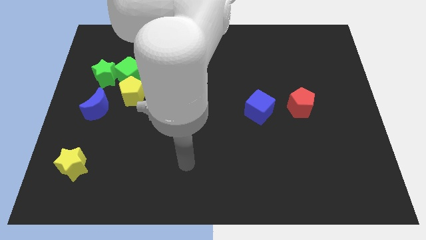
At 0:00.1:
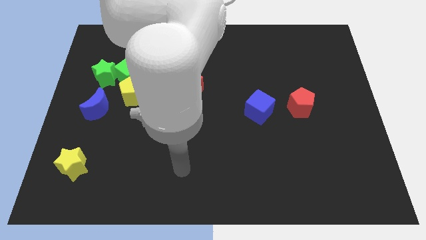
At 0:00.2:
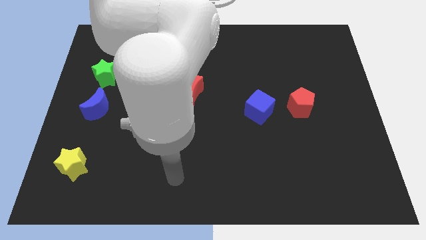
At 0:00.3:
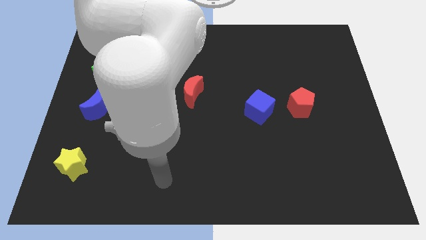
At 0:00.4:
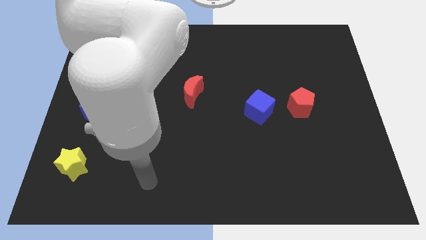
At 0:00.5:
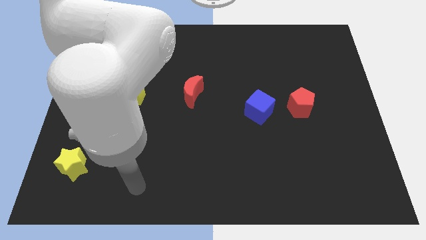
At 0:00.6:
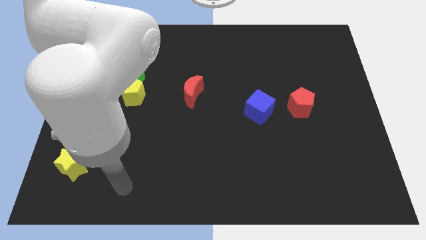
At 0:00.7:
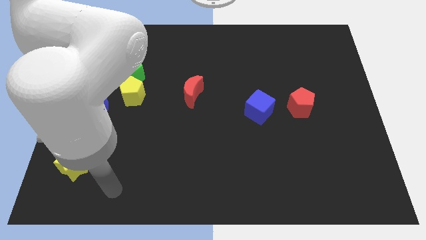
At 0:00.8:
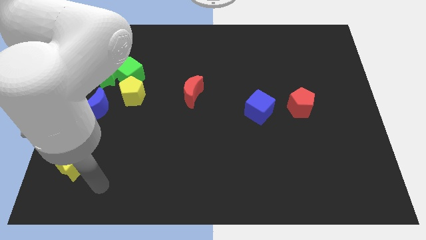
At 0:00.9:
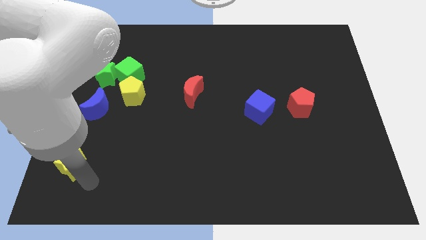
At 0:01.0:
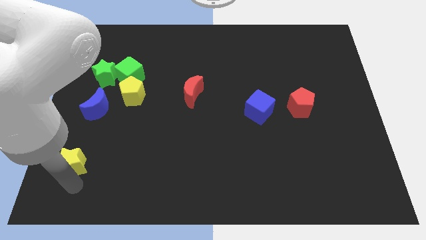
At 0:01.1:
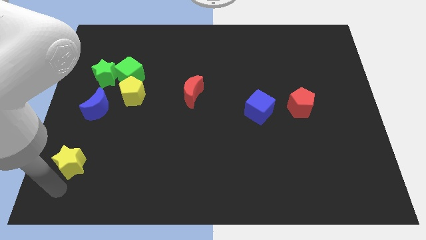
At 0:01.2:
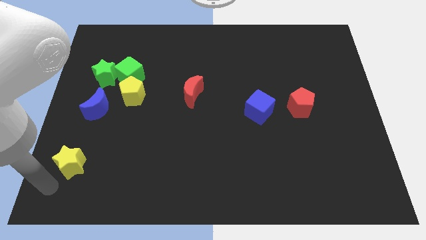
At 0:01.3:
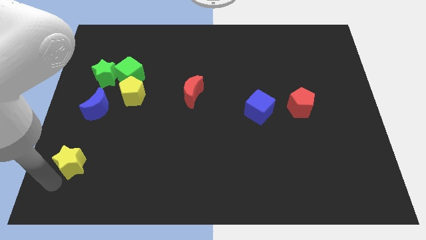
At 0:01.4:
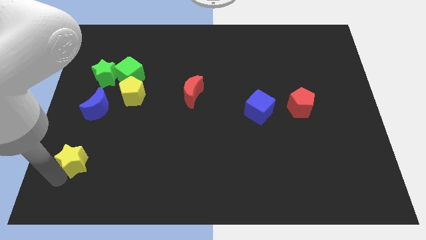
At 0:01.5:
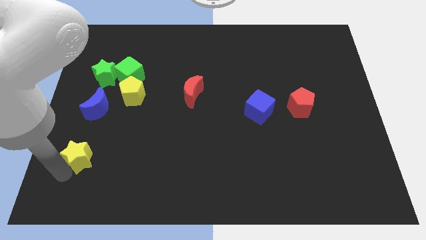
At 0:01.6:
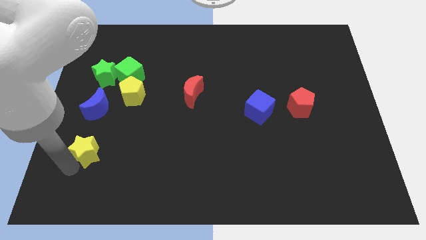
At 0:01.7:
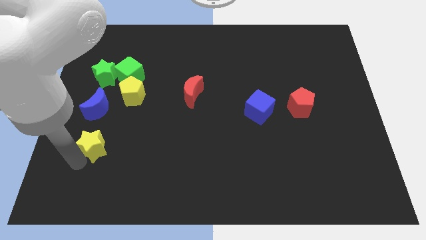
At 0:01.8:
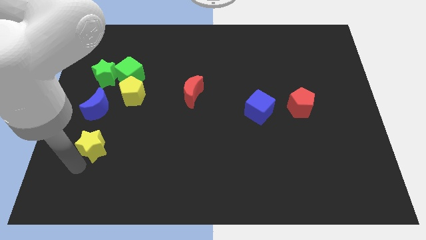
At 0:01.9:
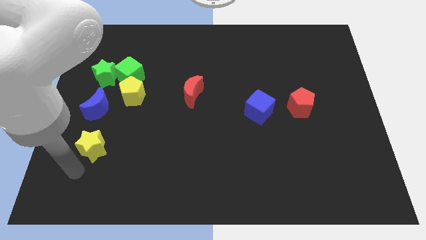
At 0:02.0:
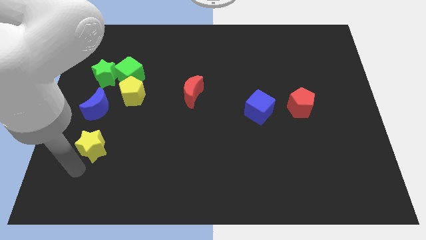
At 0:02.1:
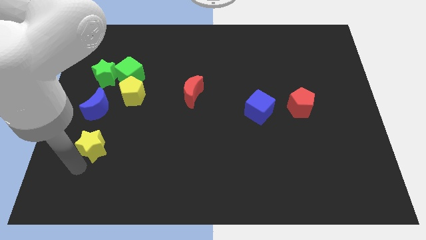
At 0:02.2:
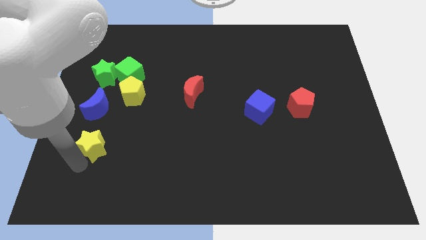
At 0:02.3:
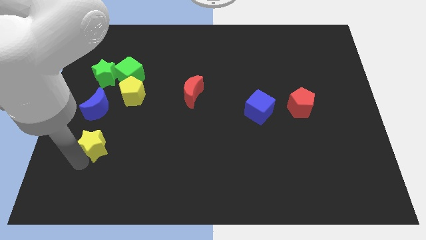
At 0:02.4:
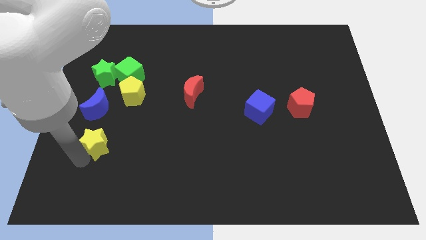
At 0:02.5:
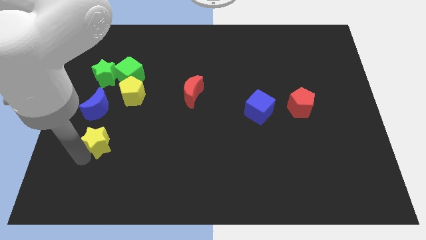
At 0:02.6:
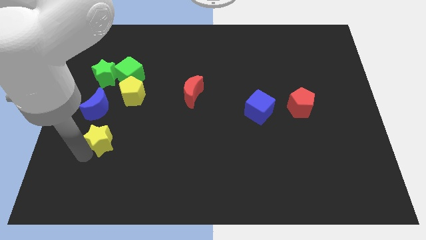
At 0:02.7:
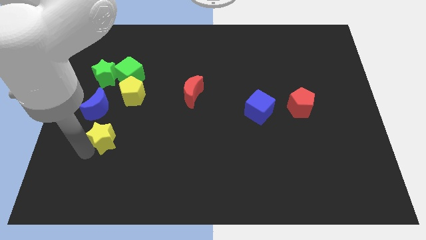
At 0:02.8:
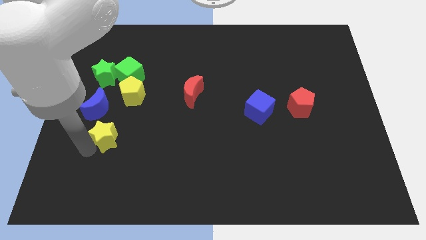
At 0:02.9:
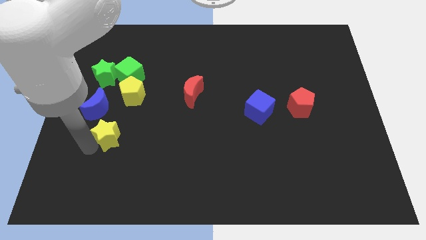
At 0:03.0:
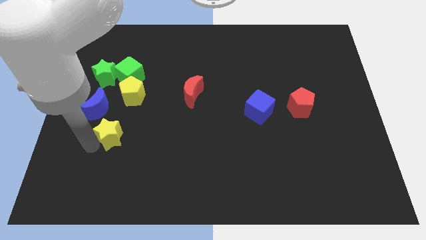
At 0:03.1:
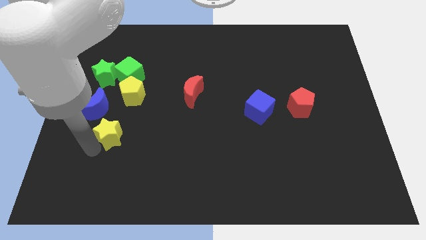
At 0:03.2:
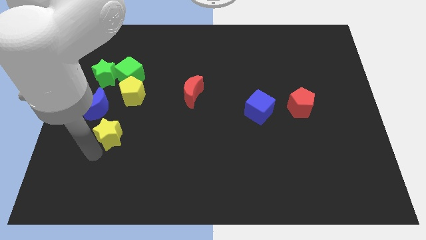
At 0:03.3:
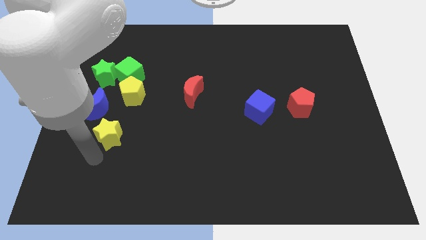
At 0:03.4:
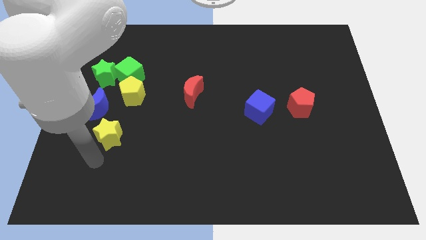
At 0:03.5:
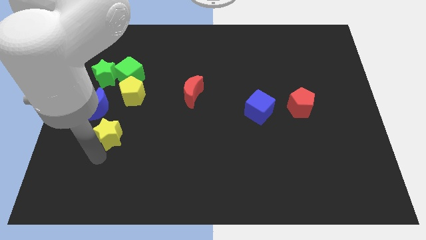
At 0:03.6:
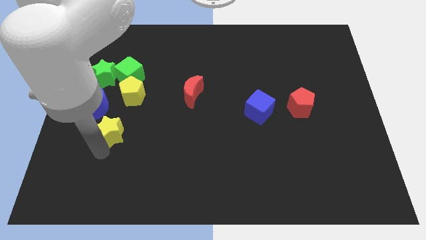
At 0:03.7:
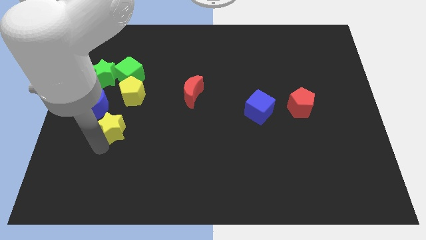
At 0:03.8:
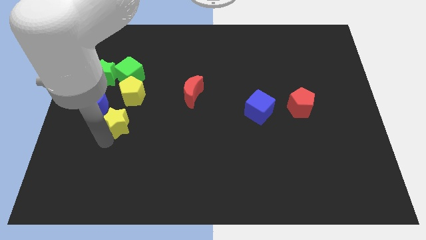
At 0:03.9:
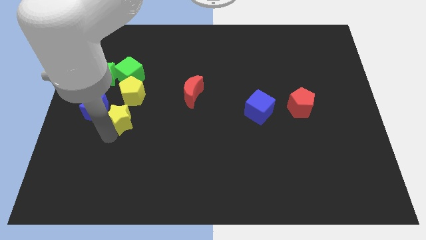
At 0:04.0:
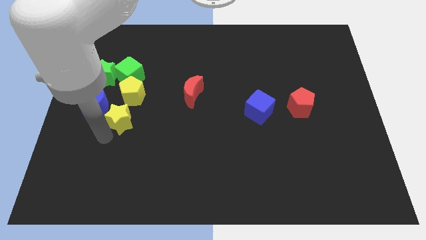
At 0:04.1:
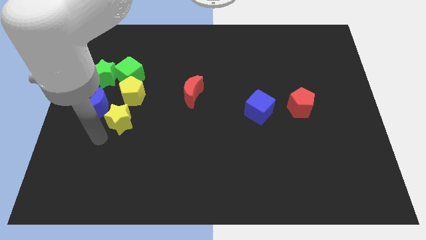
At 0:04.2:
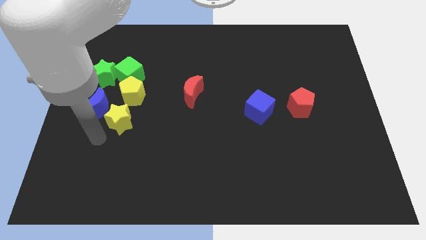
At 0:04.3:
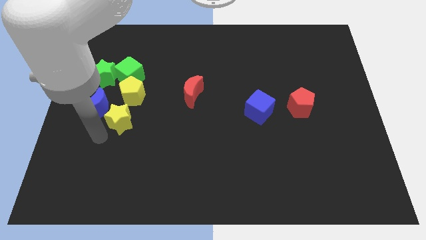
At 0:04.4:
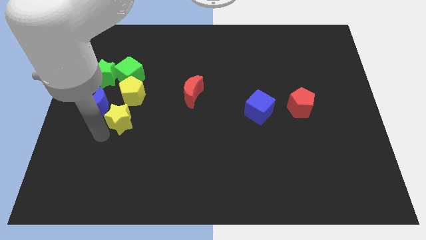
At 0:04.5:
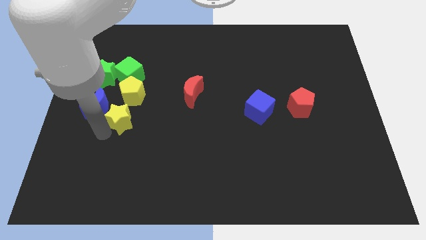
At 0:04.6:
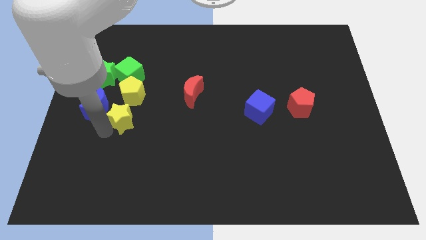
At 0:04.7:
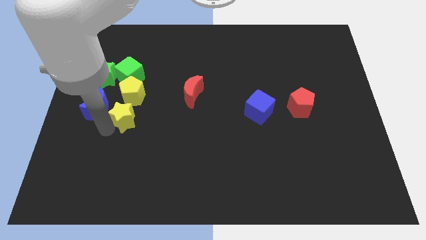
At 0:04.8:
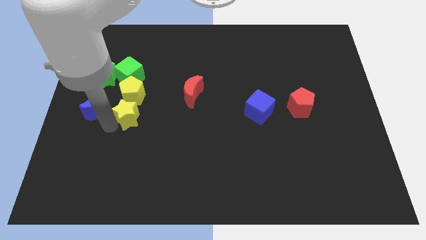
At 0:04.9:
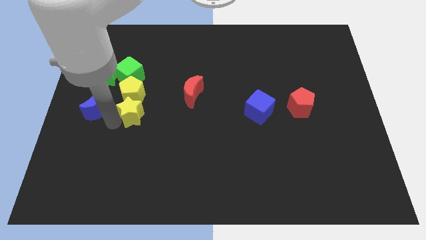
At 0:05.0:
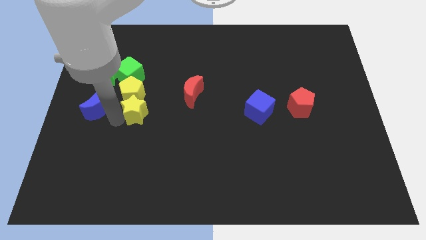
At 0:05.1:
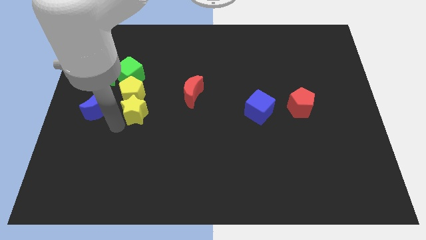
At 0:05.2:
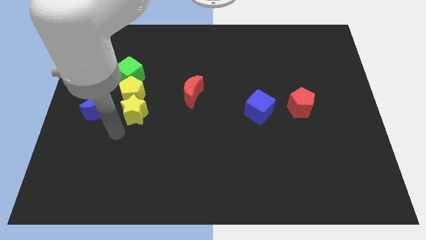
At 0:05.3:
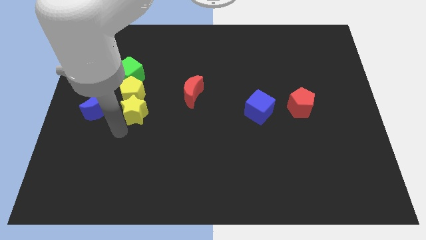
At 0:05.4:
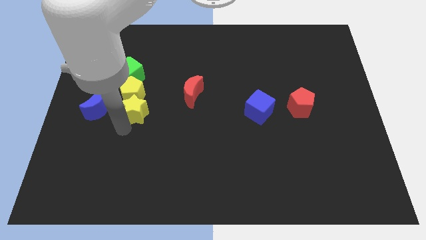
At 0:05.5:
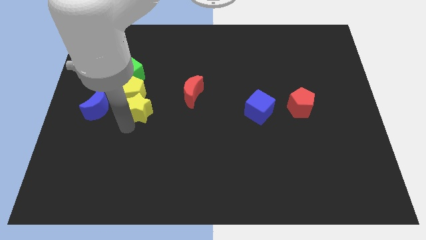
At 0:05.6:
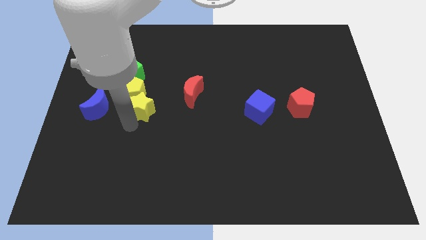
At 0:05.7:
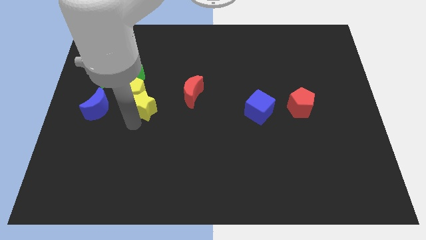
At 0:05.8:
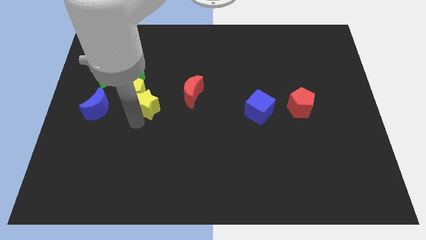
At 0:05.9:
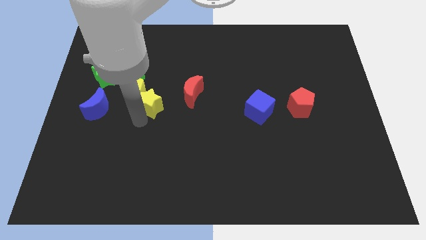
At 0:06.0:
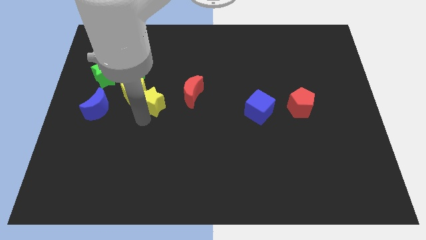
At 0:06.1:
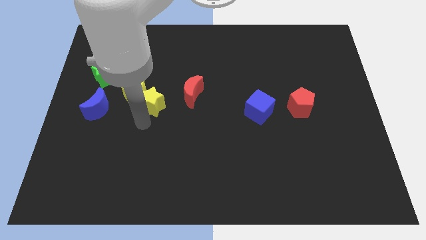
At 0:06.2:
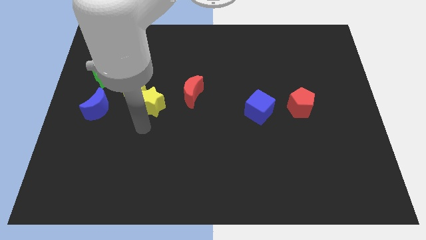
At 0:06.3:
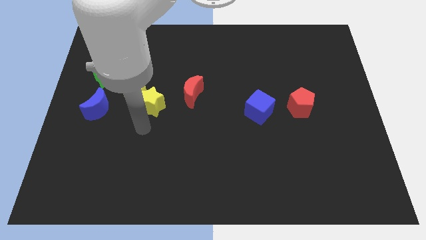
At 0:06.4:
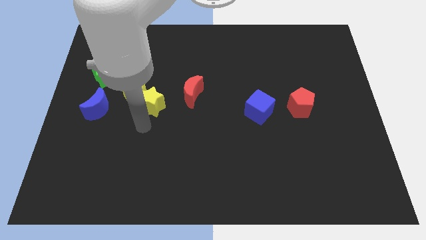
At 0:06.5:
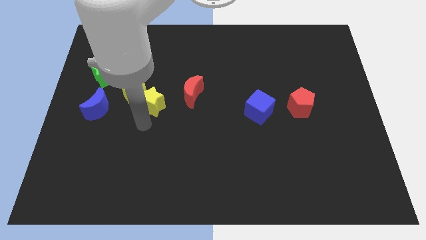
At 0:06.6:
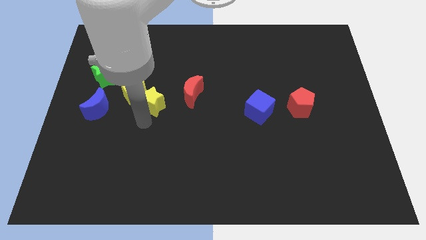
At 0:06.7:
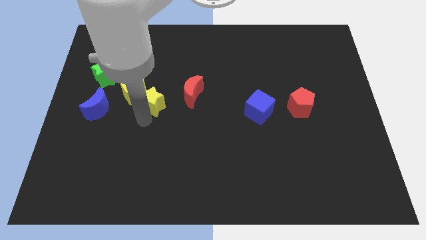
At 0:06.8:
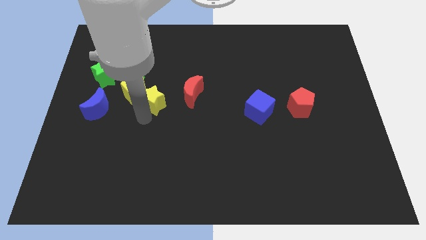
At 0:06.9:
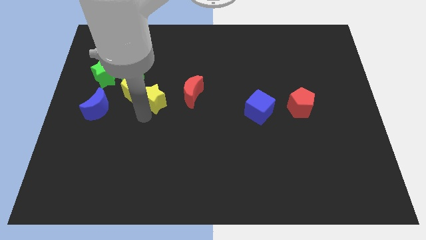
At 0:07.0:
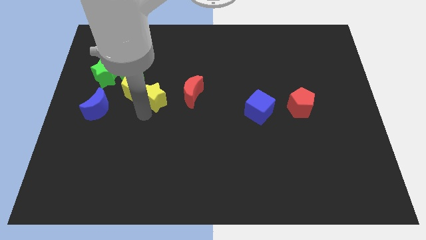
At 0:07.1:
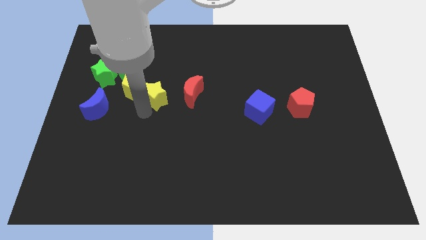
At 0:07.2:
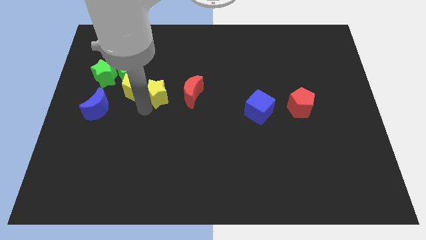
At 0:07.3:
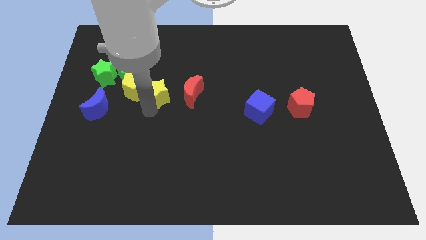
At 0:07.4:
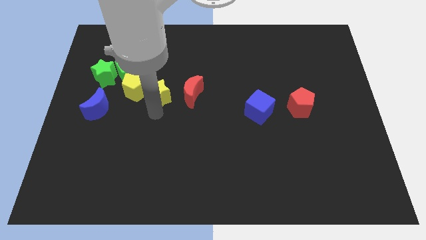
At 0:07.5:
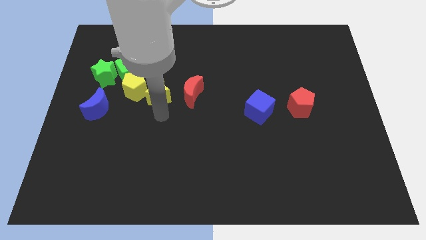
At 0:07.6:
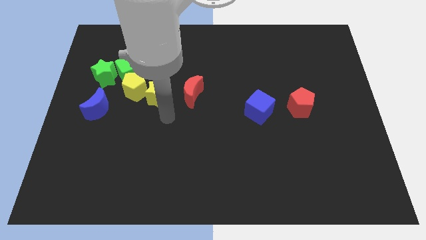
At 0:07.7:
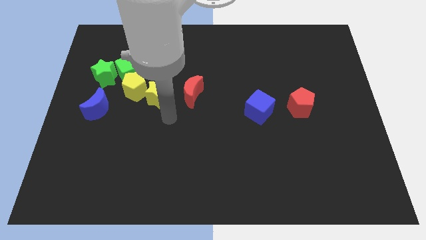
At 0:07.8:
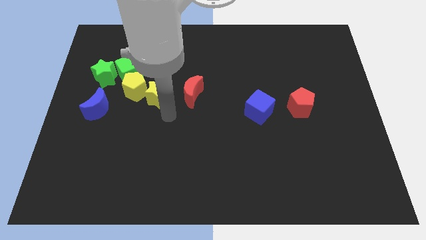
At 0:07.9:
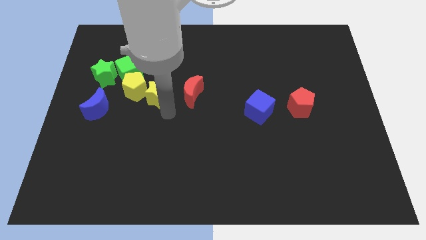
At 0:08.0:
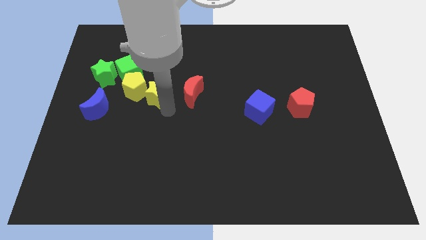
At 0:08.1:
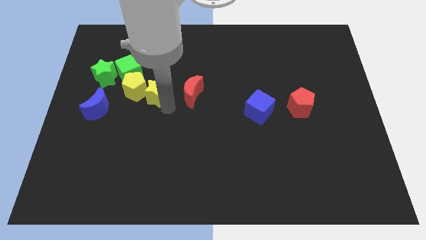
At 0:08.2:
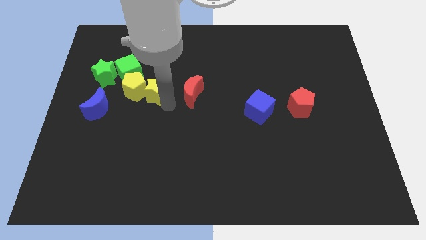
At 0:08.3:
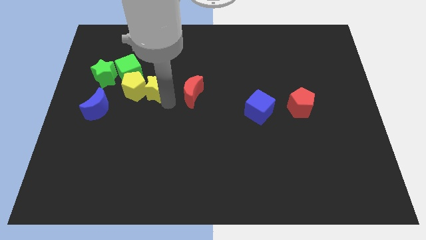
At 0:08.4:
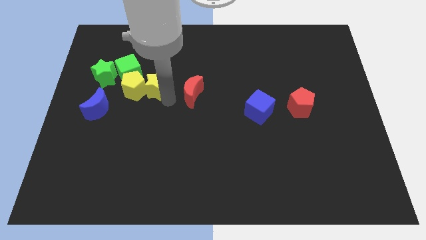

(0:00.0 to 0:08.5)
move the yellow star to the right of the green star

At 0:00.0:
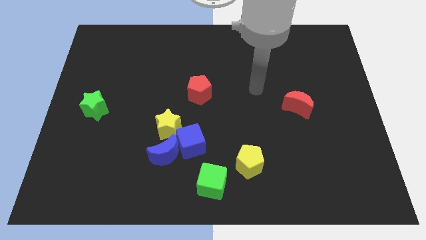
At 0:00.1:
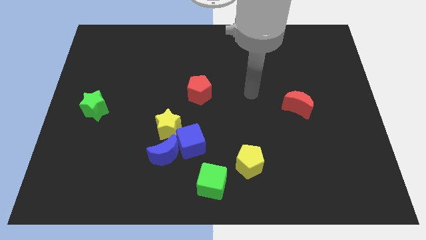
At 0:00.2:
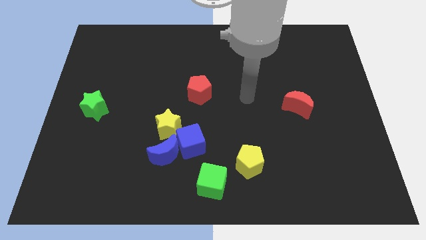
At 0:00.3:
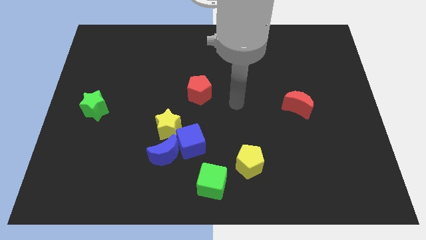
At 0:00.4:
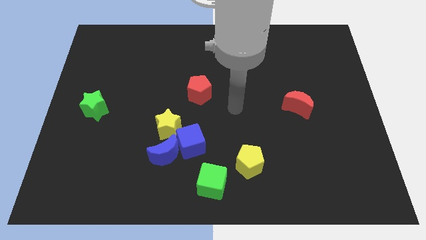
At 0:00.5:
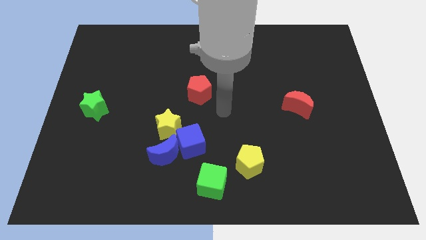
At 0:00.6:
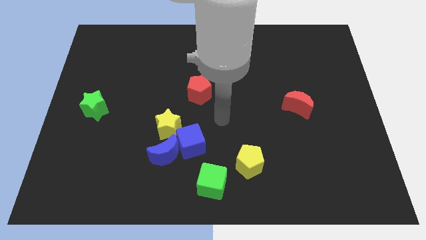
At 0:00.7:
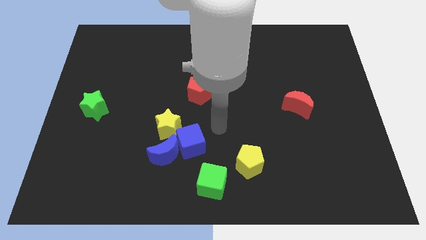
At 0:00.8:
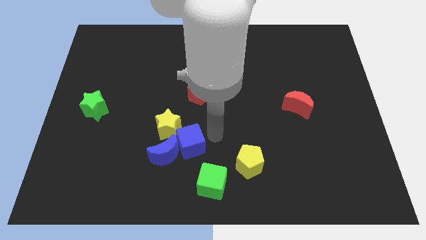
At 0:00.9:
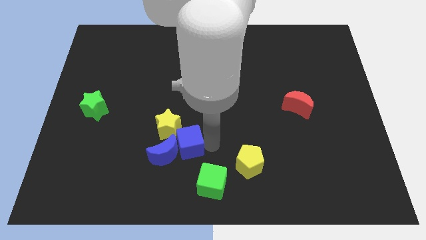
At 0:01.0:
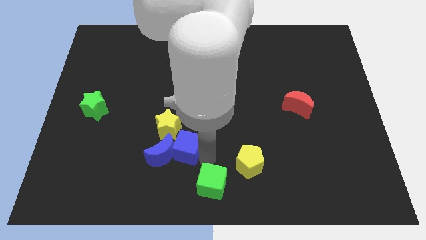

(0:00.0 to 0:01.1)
push the blue moon to the top left side of the blue cube
